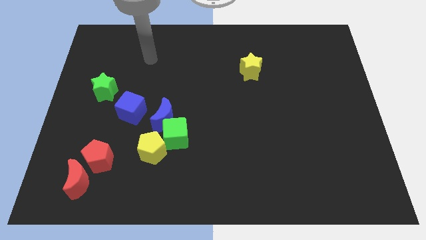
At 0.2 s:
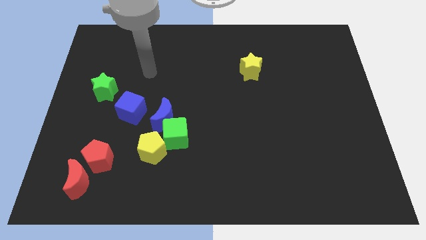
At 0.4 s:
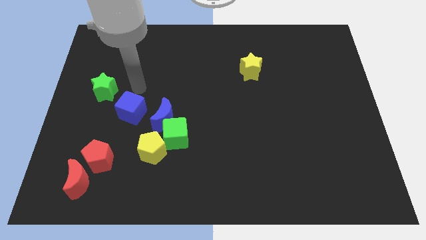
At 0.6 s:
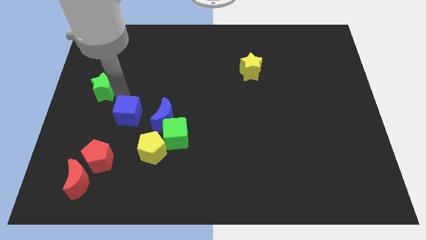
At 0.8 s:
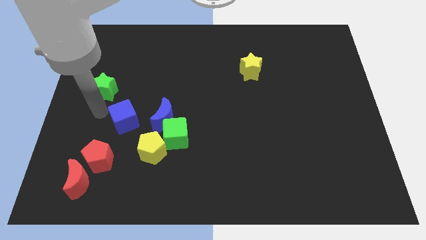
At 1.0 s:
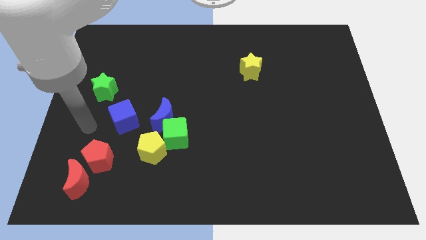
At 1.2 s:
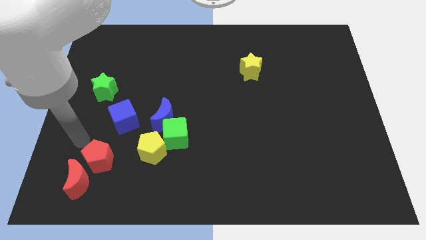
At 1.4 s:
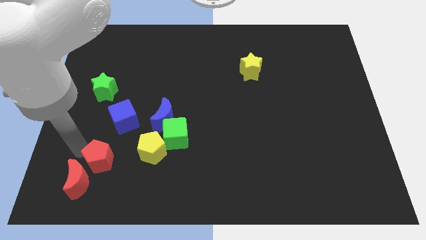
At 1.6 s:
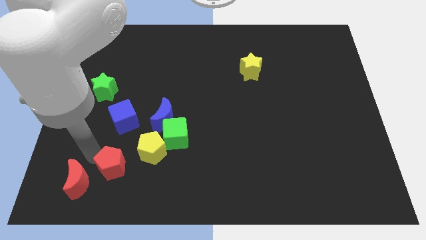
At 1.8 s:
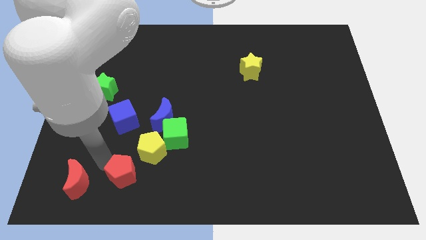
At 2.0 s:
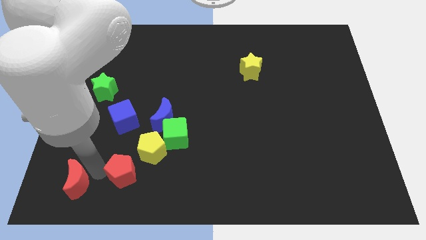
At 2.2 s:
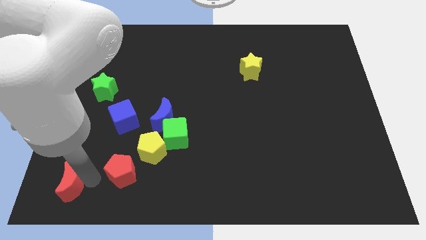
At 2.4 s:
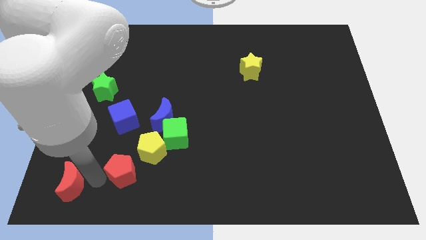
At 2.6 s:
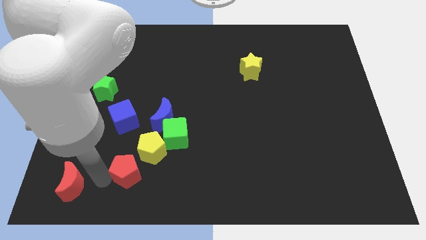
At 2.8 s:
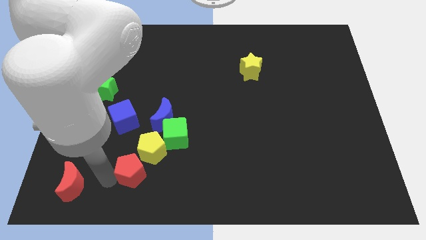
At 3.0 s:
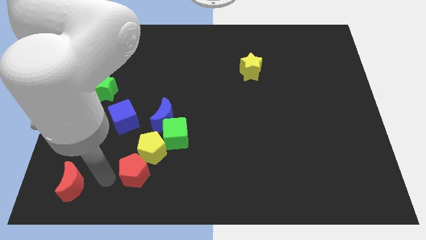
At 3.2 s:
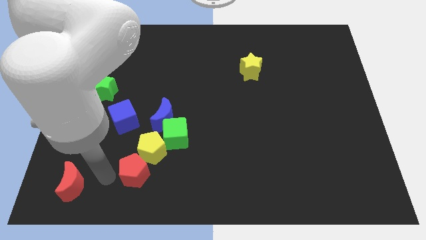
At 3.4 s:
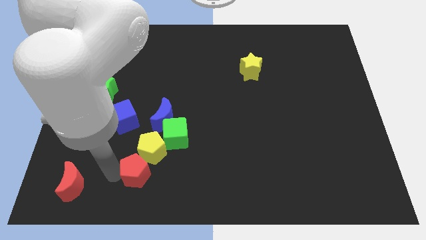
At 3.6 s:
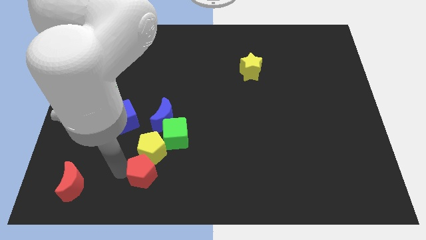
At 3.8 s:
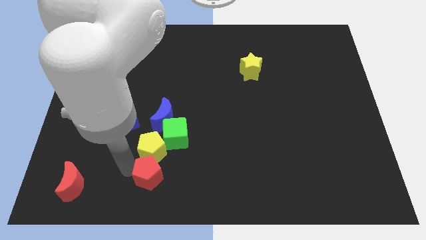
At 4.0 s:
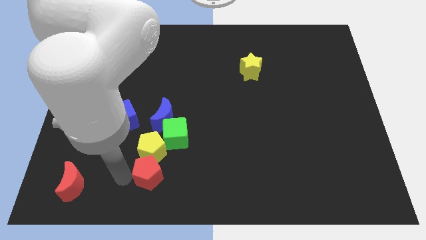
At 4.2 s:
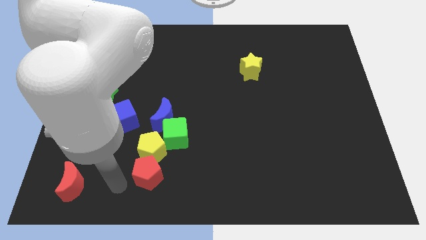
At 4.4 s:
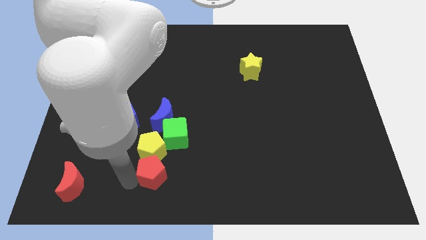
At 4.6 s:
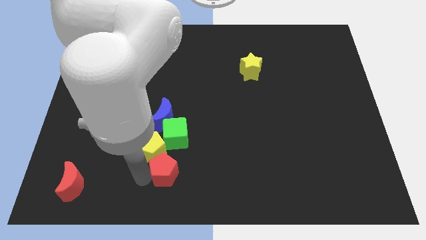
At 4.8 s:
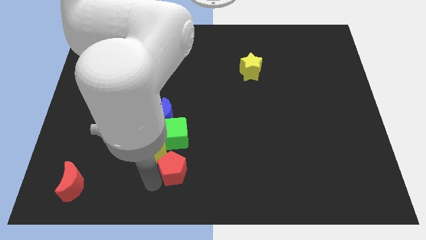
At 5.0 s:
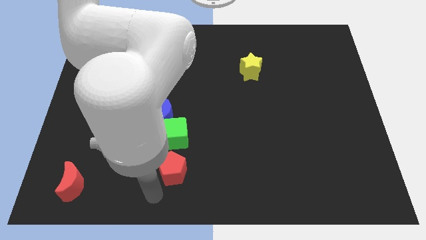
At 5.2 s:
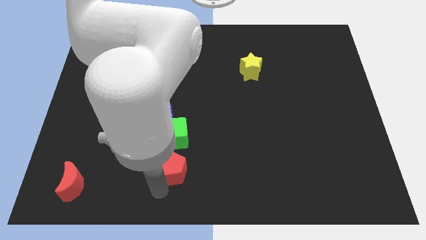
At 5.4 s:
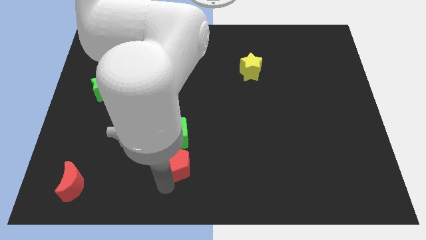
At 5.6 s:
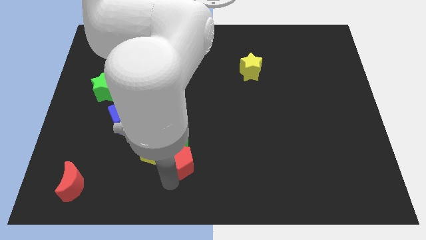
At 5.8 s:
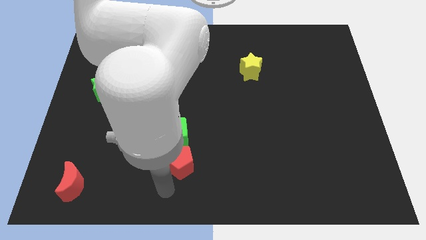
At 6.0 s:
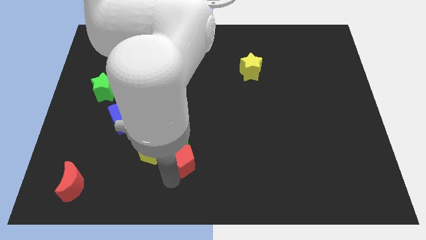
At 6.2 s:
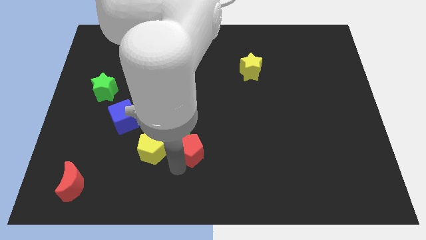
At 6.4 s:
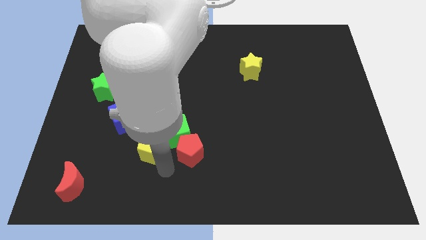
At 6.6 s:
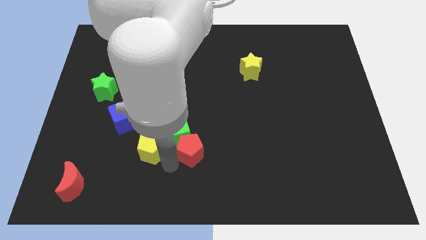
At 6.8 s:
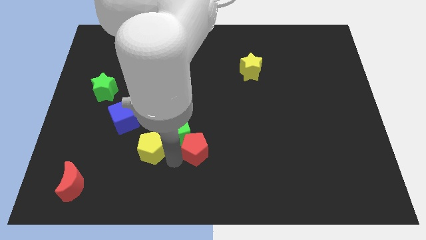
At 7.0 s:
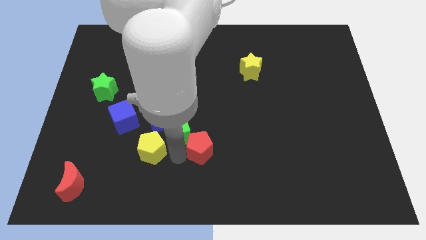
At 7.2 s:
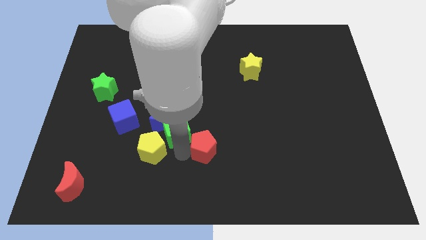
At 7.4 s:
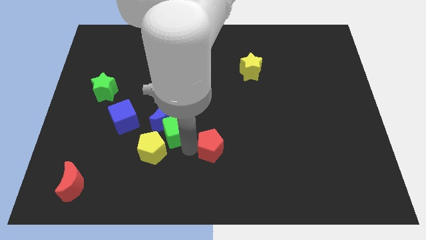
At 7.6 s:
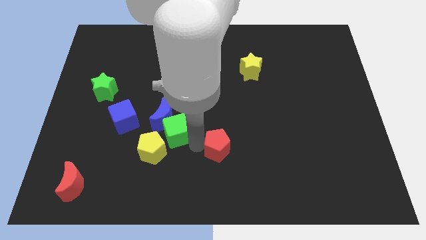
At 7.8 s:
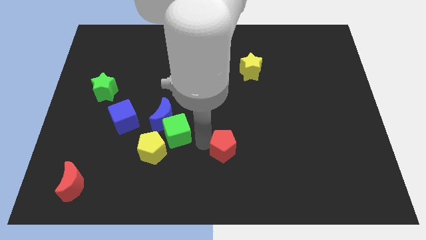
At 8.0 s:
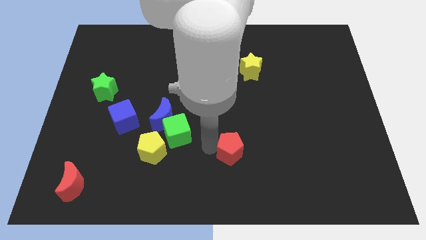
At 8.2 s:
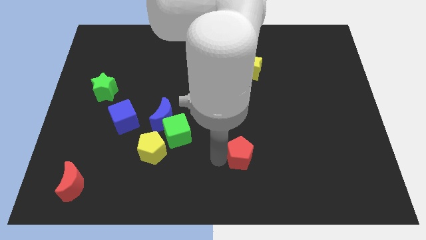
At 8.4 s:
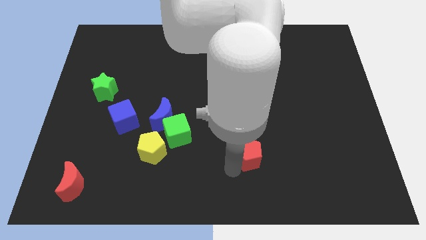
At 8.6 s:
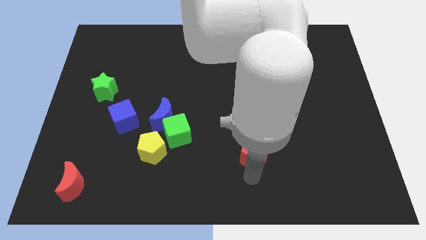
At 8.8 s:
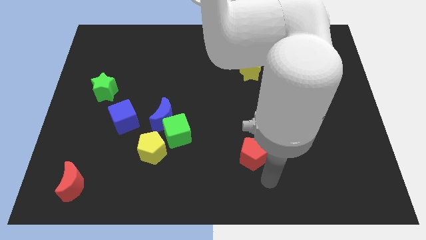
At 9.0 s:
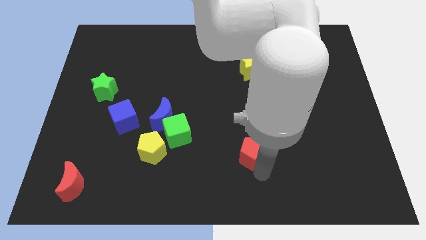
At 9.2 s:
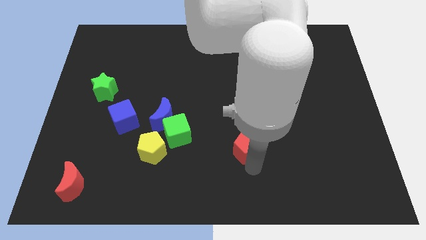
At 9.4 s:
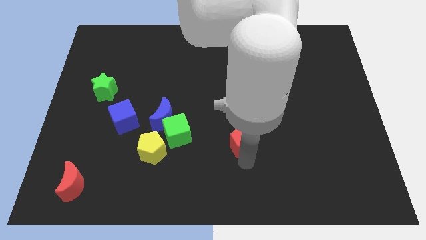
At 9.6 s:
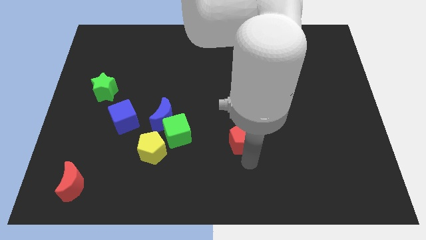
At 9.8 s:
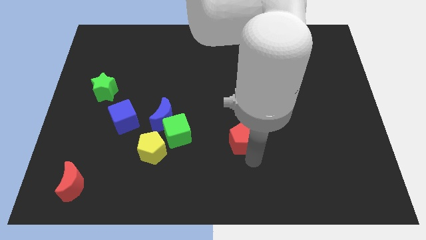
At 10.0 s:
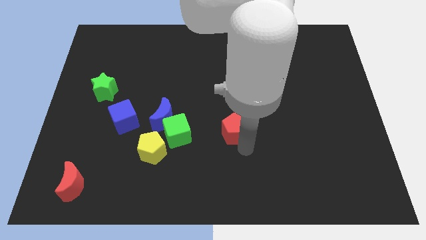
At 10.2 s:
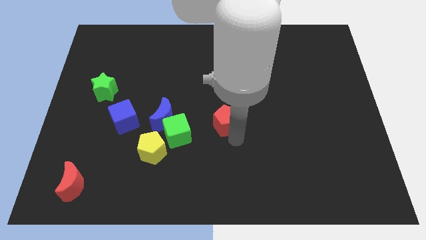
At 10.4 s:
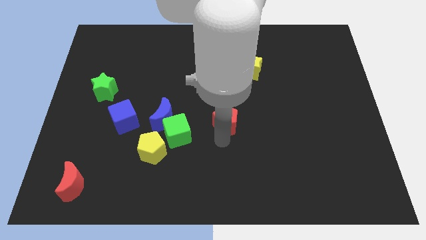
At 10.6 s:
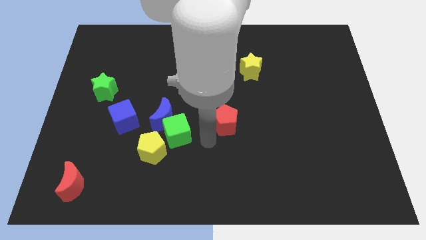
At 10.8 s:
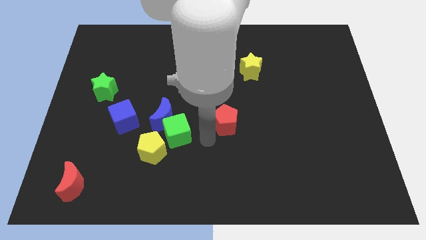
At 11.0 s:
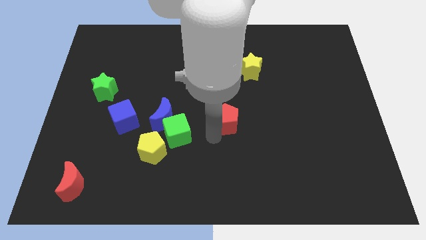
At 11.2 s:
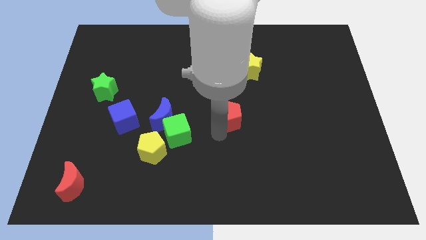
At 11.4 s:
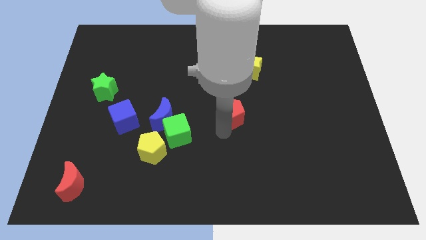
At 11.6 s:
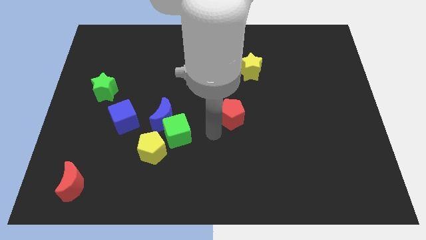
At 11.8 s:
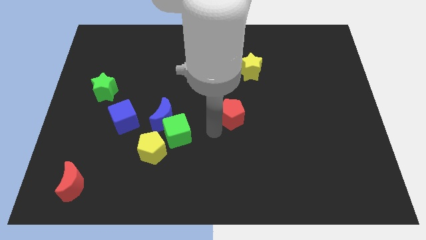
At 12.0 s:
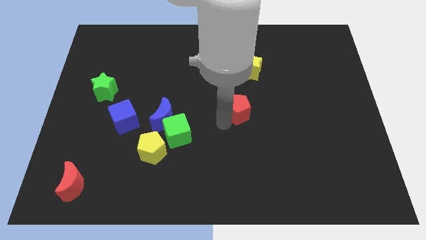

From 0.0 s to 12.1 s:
slide the red pentagon to the bottom side of the yellow star
